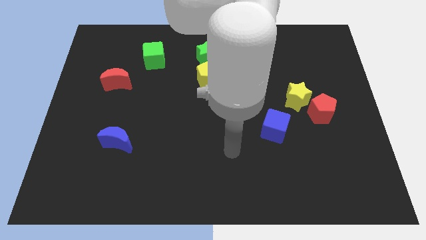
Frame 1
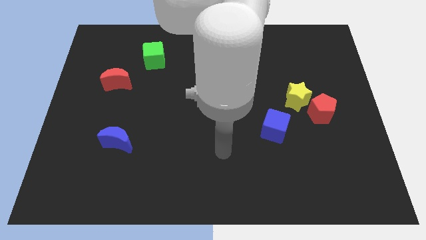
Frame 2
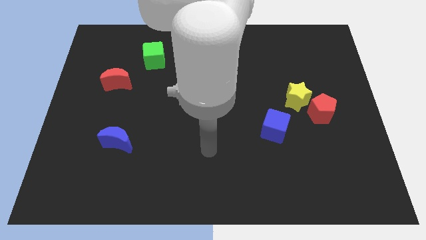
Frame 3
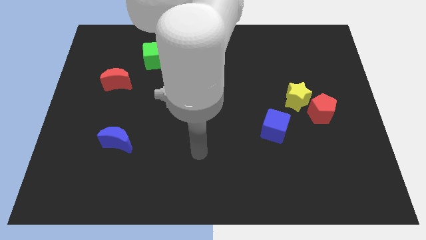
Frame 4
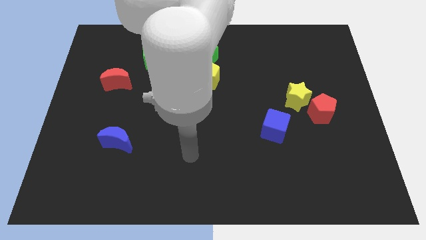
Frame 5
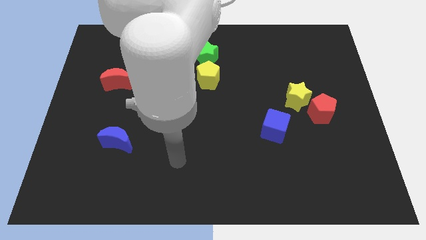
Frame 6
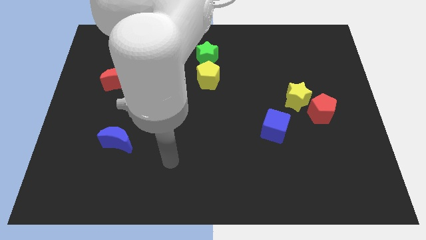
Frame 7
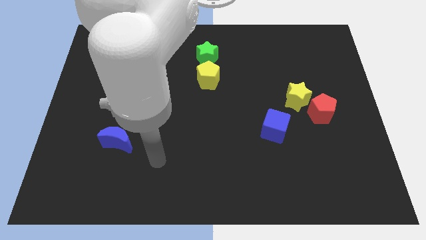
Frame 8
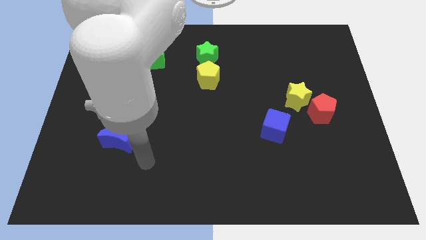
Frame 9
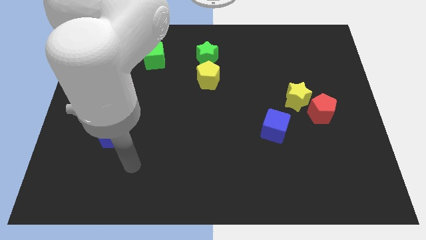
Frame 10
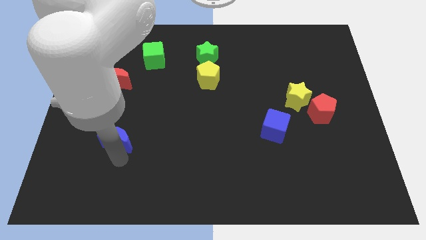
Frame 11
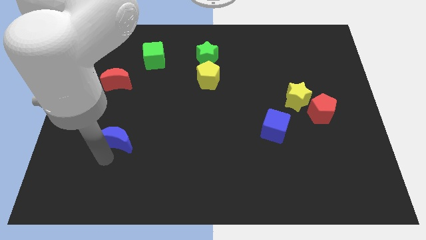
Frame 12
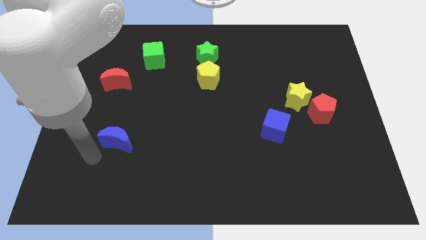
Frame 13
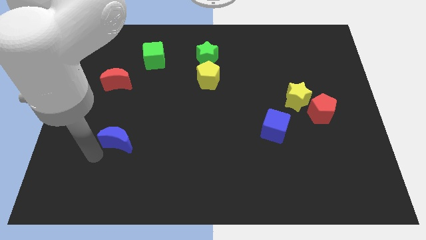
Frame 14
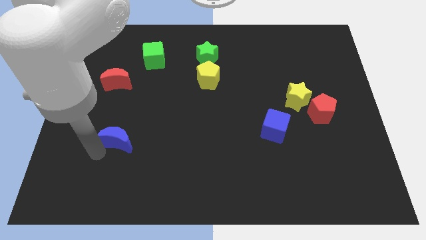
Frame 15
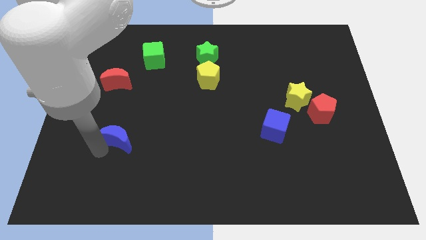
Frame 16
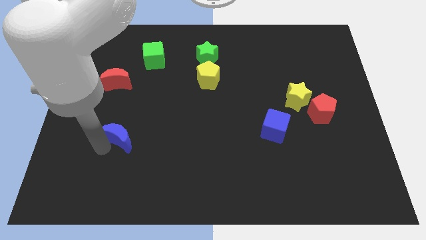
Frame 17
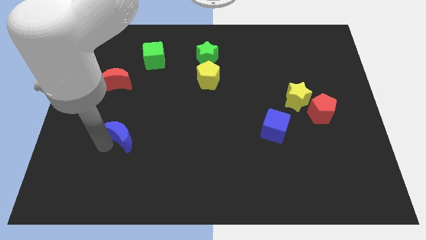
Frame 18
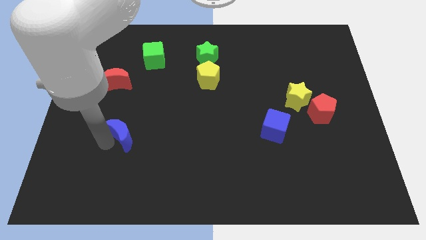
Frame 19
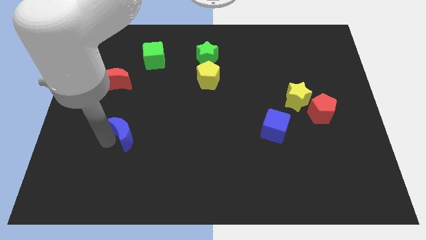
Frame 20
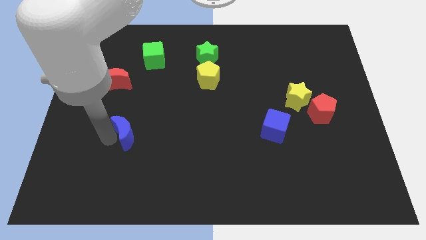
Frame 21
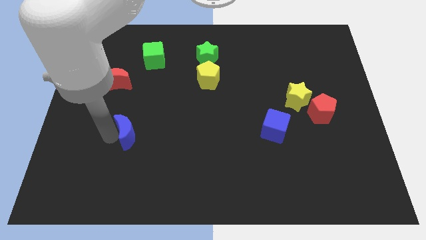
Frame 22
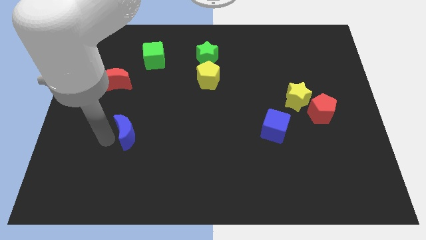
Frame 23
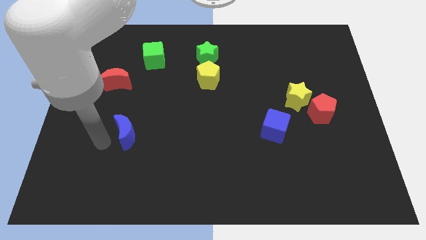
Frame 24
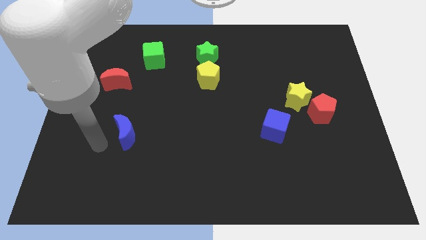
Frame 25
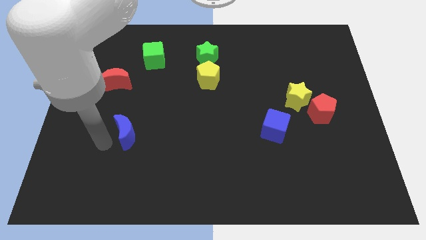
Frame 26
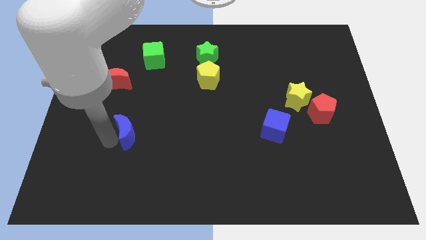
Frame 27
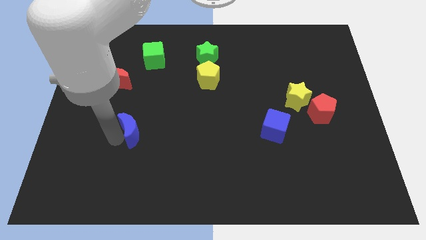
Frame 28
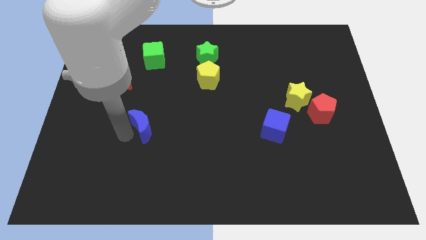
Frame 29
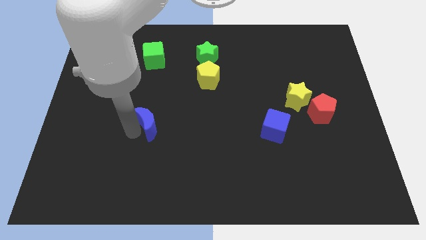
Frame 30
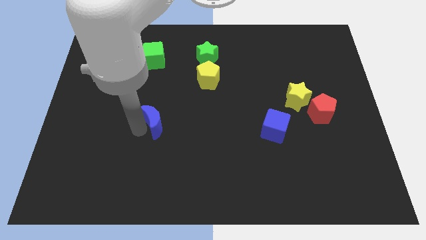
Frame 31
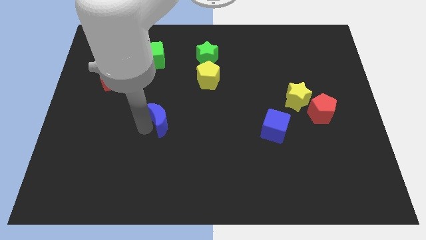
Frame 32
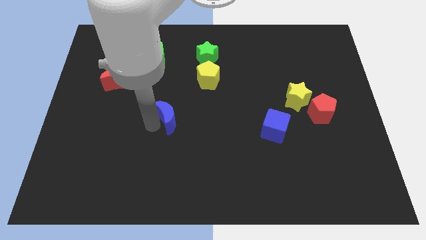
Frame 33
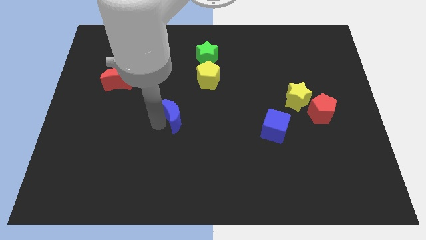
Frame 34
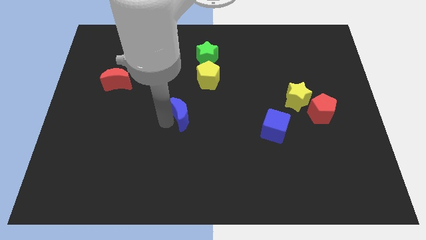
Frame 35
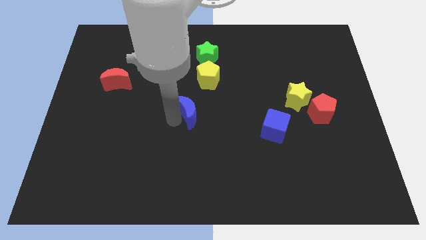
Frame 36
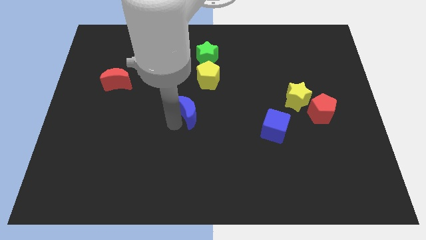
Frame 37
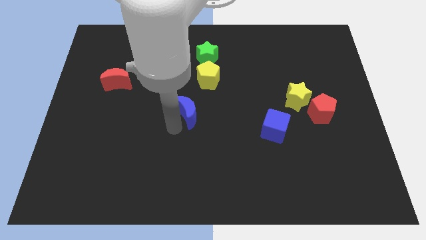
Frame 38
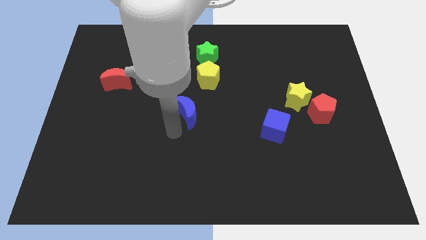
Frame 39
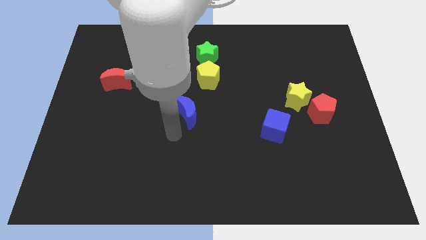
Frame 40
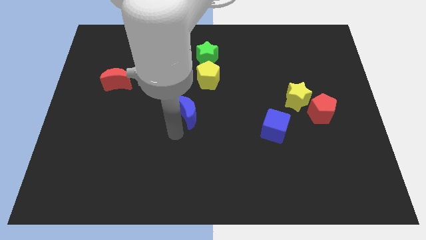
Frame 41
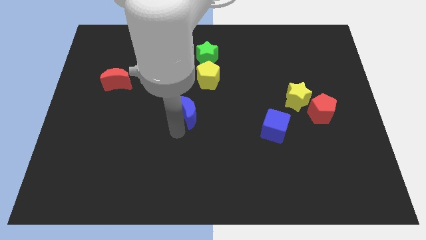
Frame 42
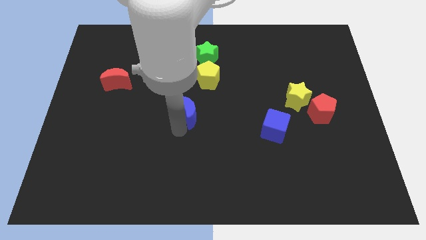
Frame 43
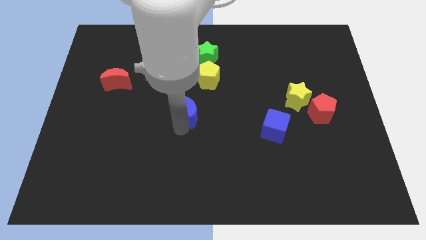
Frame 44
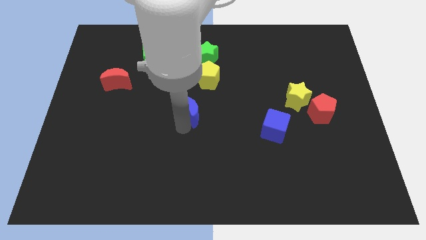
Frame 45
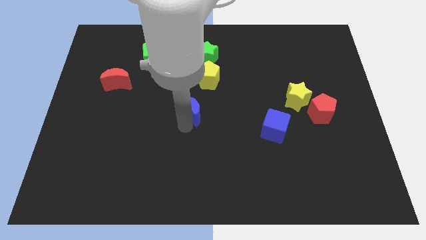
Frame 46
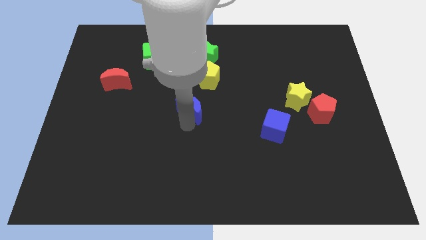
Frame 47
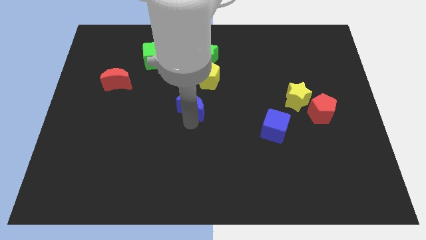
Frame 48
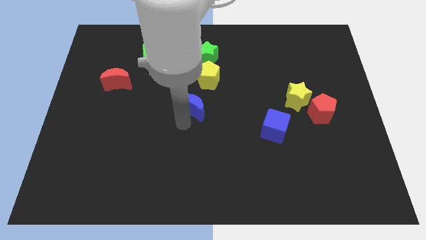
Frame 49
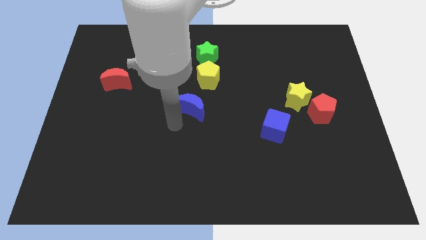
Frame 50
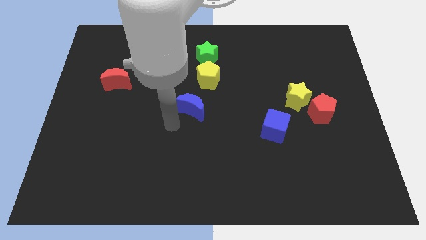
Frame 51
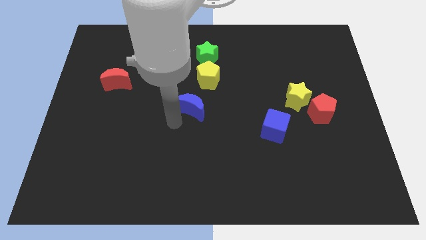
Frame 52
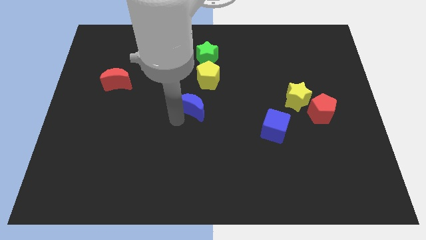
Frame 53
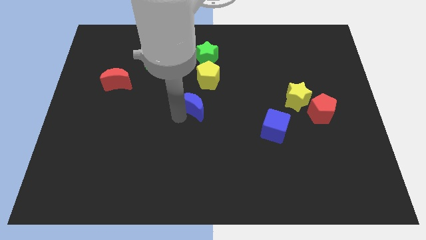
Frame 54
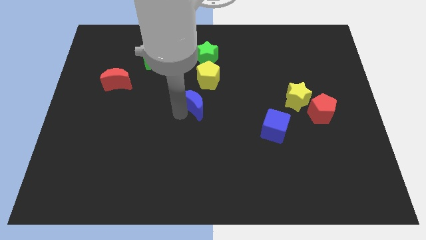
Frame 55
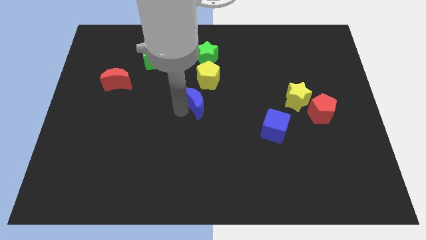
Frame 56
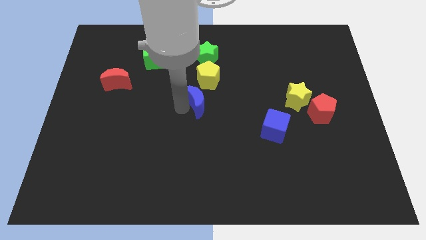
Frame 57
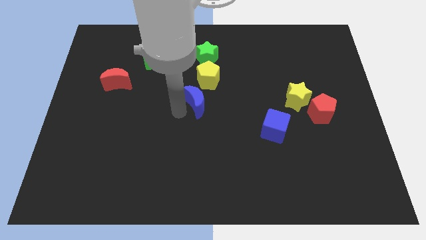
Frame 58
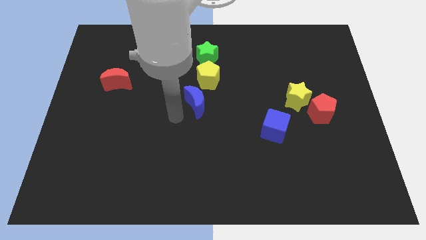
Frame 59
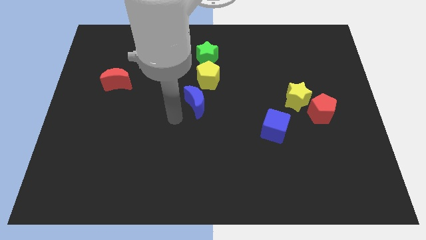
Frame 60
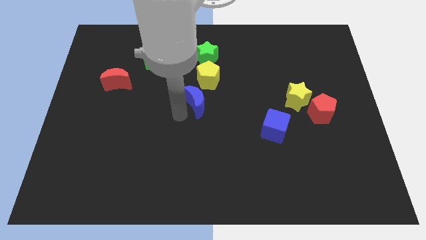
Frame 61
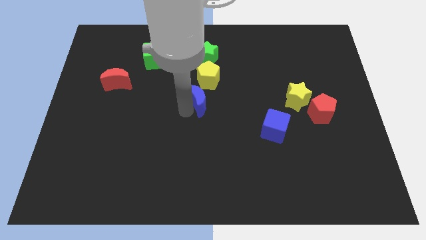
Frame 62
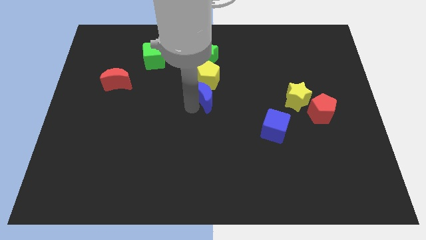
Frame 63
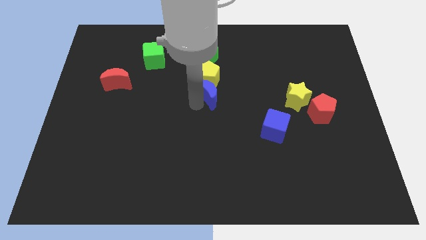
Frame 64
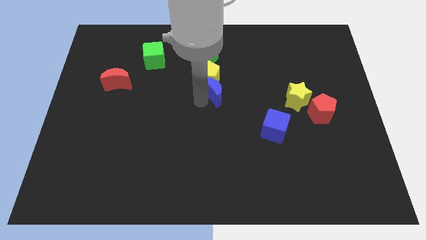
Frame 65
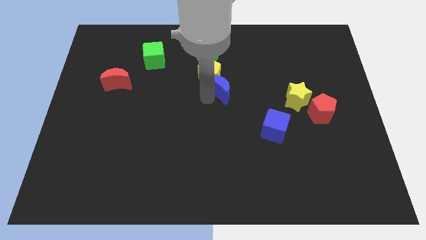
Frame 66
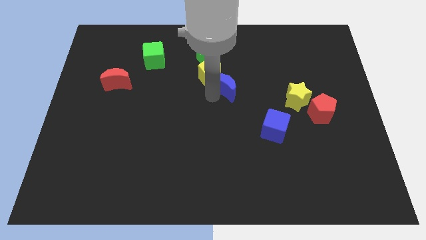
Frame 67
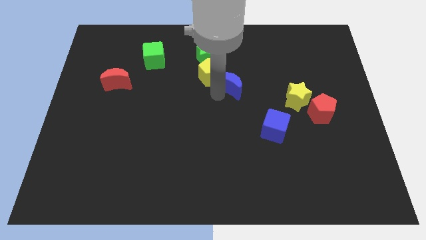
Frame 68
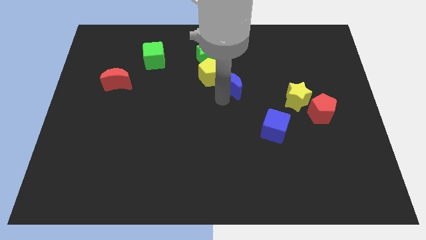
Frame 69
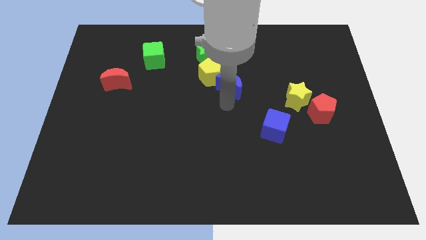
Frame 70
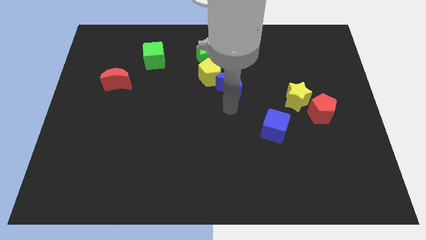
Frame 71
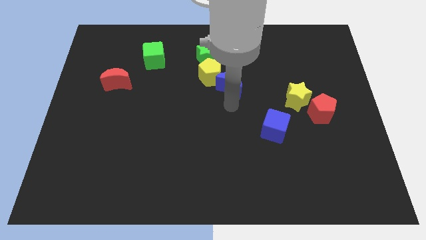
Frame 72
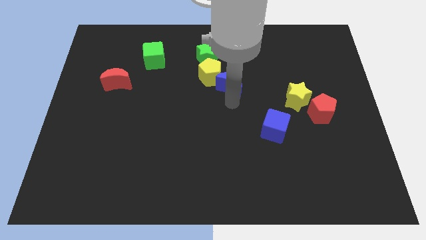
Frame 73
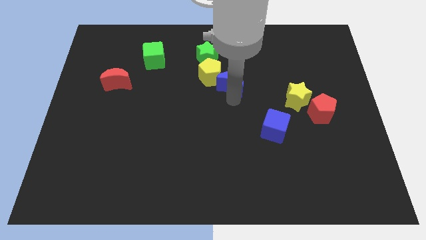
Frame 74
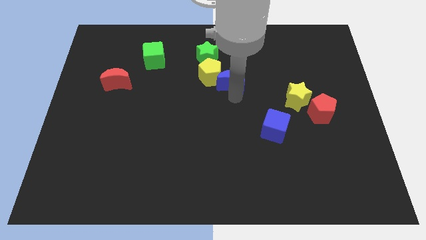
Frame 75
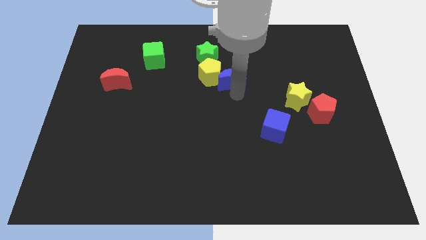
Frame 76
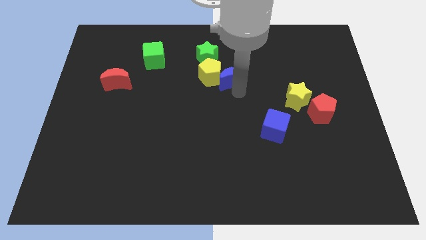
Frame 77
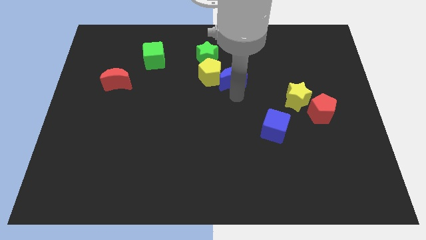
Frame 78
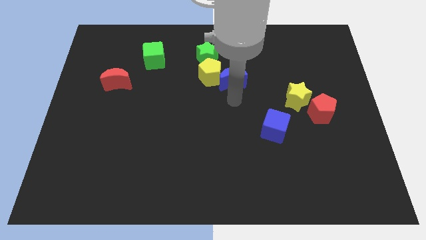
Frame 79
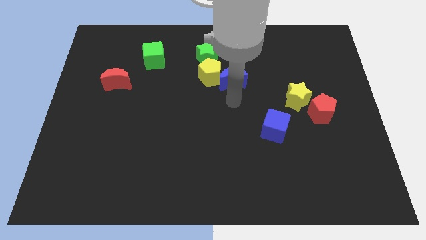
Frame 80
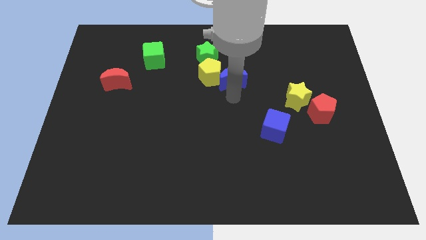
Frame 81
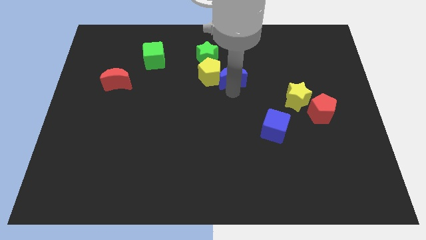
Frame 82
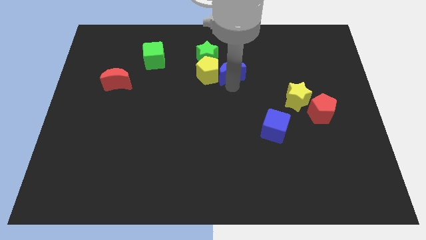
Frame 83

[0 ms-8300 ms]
slide the blue moon diagonally up and to the right of the yellow pentagon
